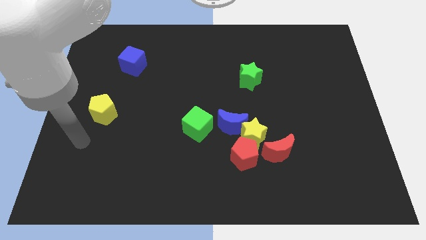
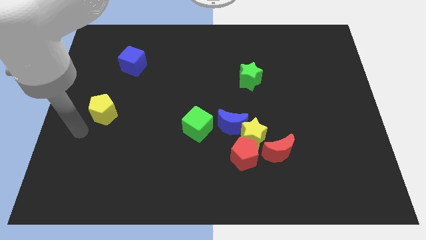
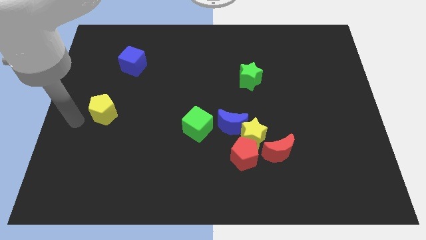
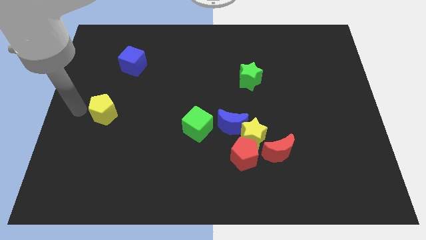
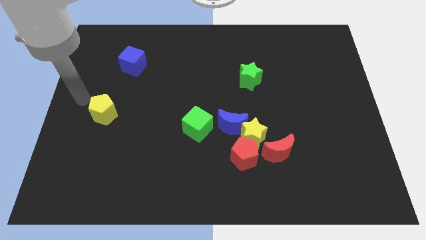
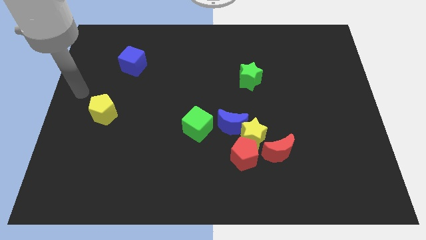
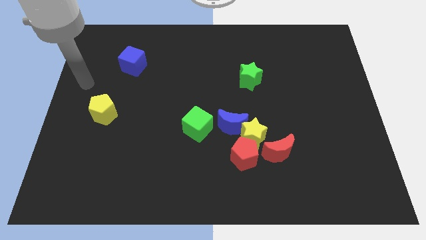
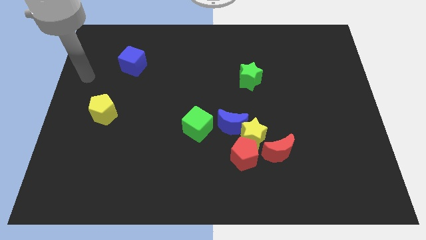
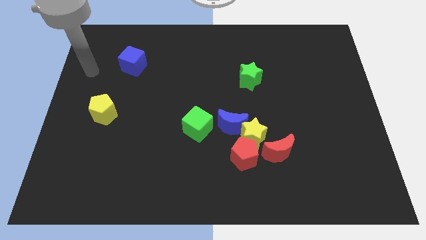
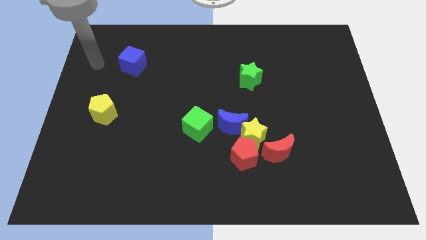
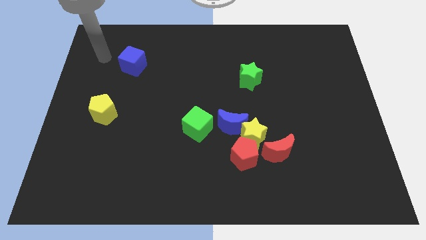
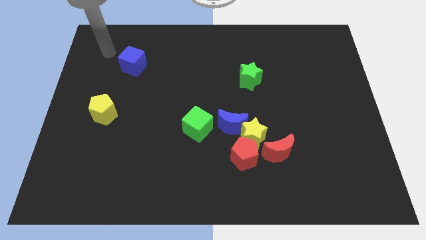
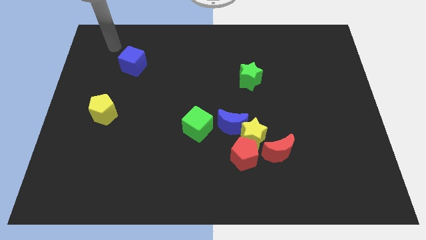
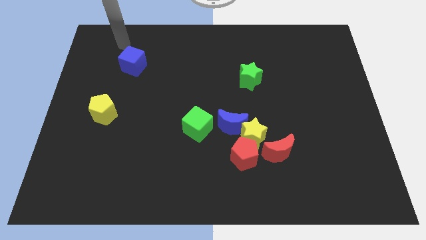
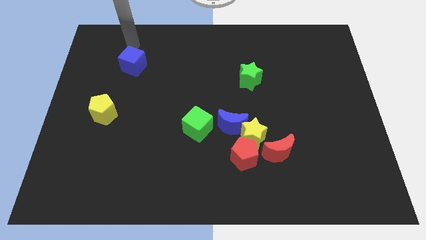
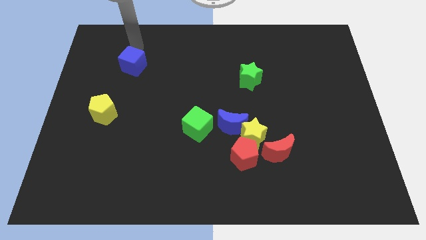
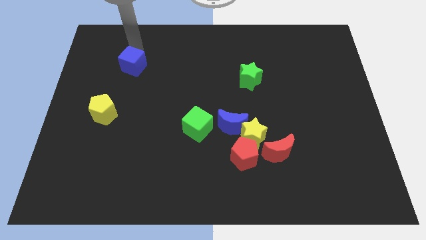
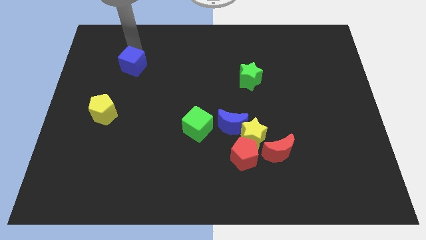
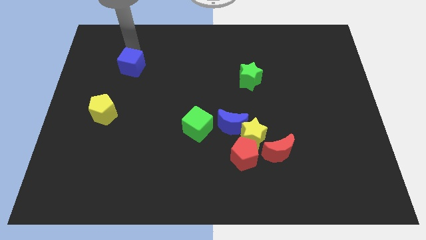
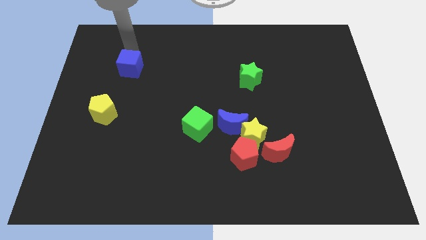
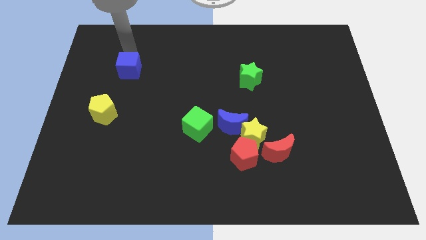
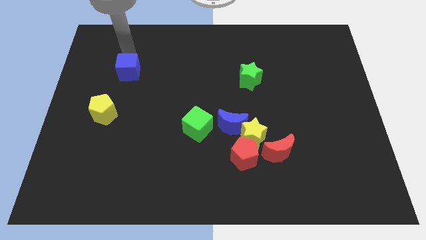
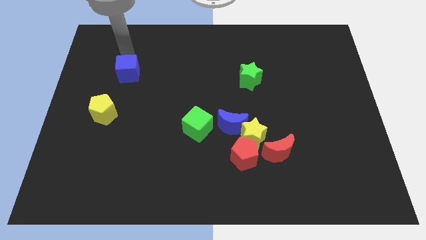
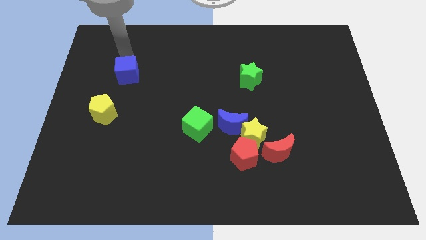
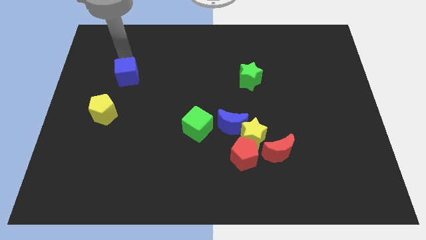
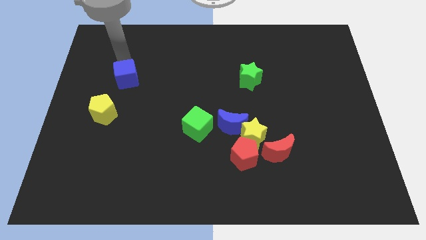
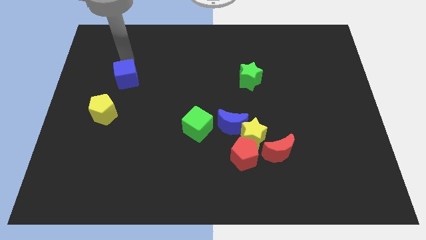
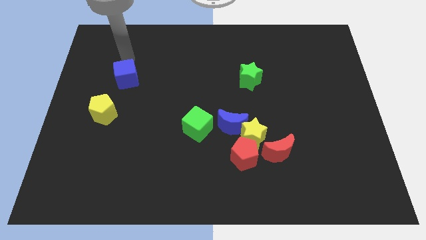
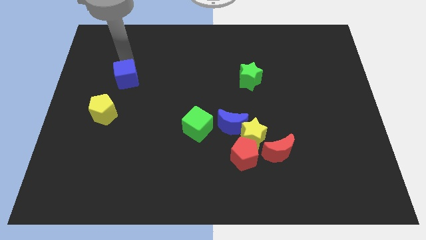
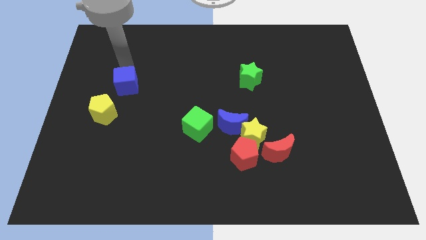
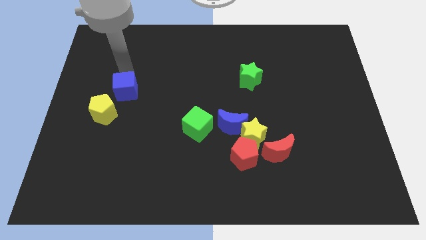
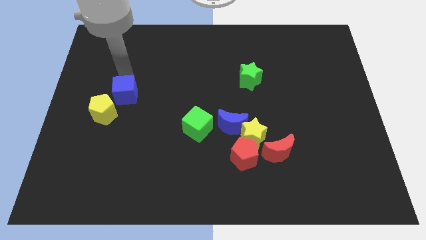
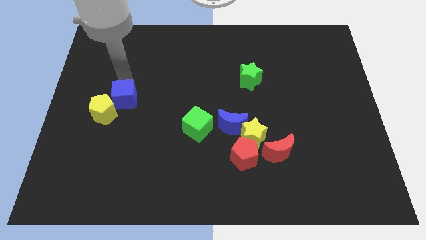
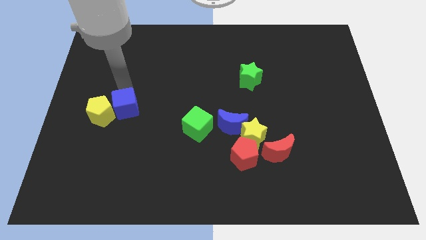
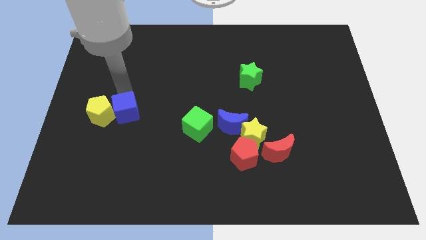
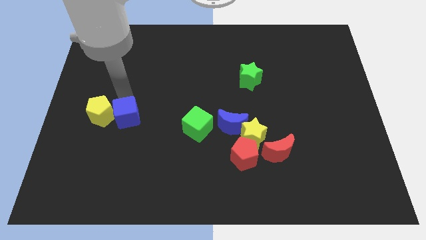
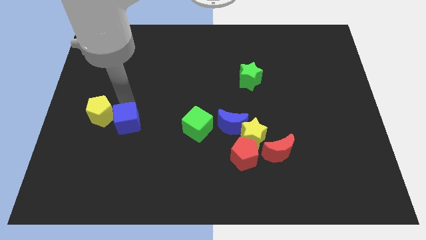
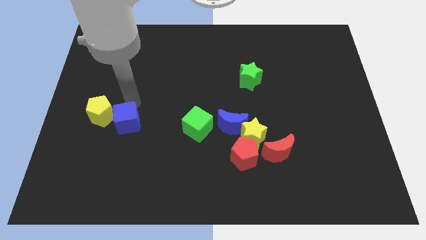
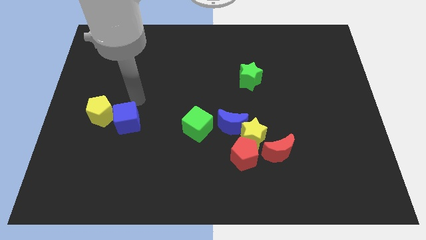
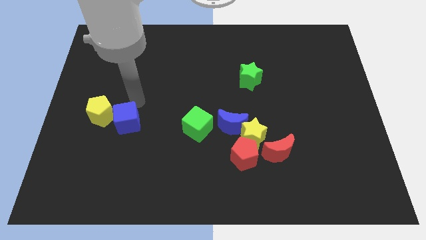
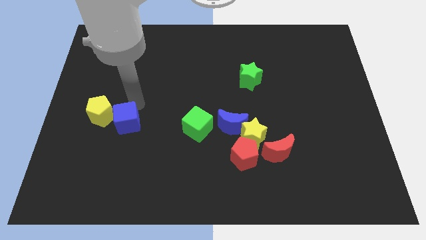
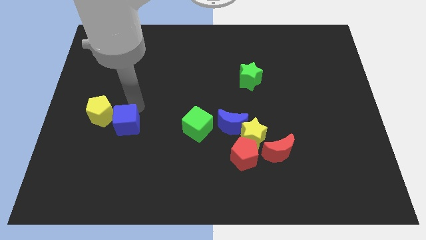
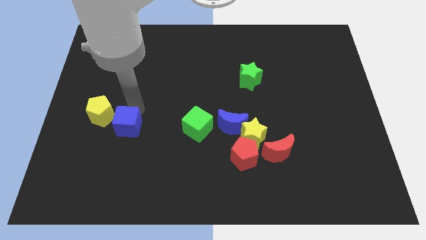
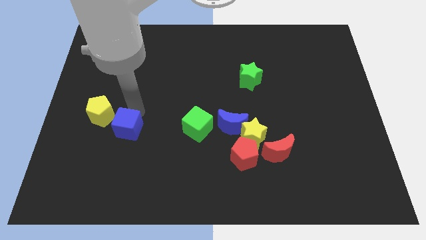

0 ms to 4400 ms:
move the blue cube downwards

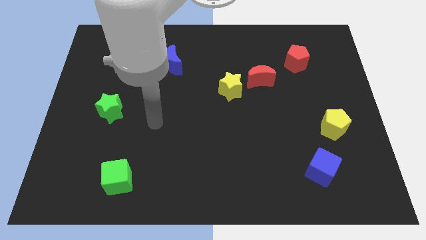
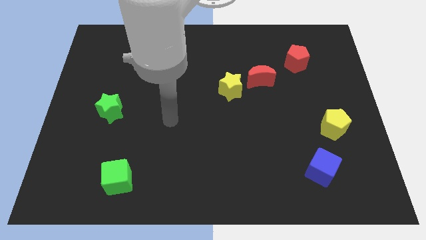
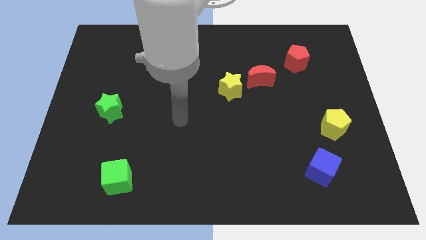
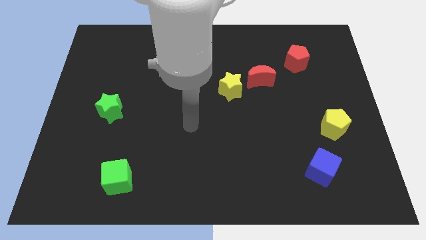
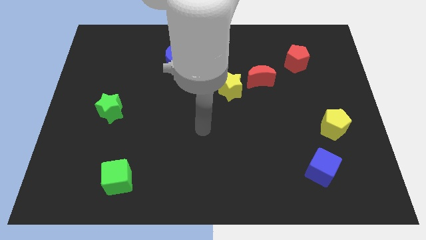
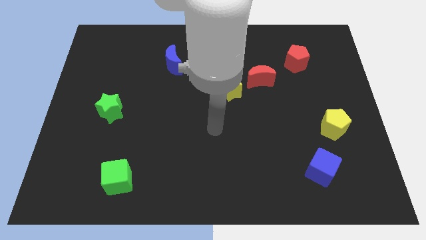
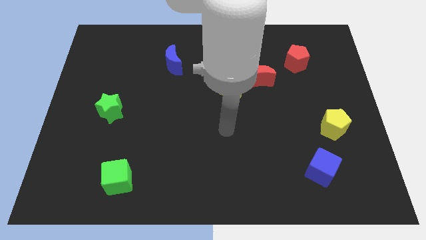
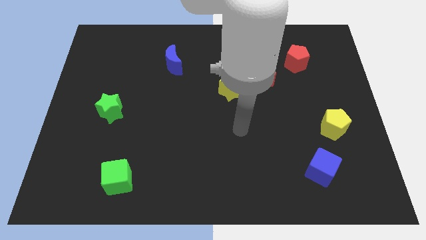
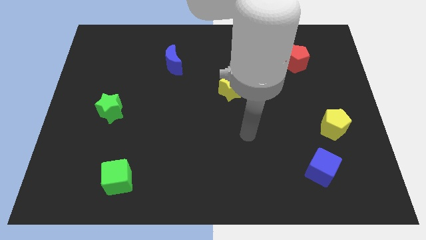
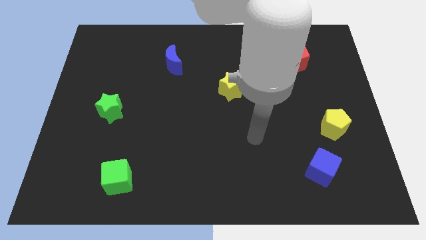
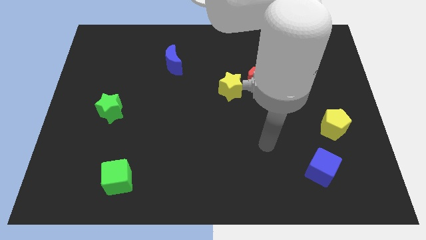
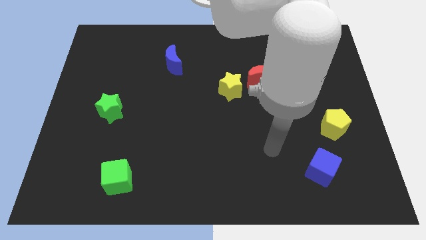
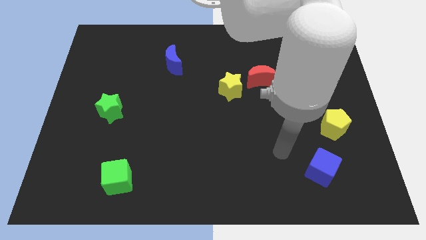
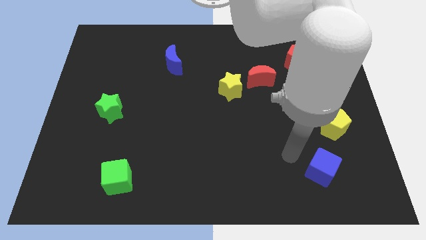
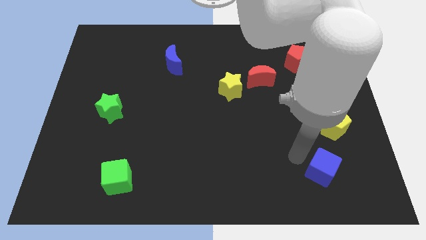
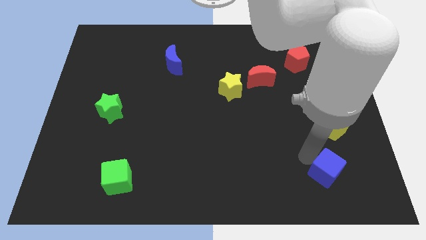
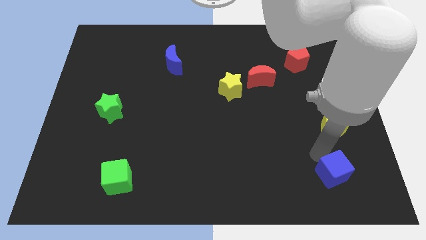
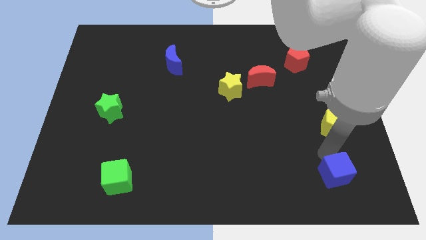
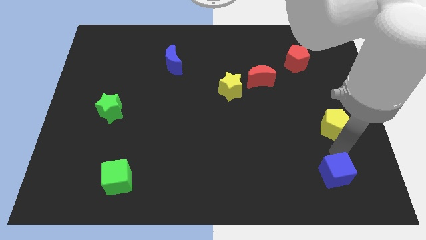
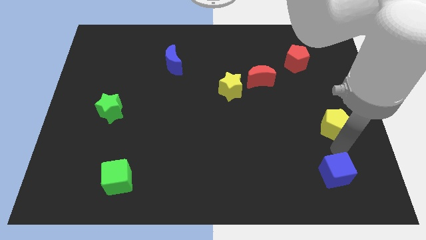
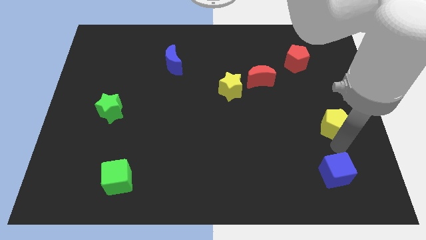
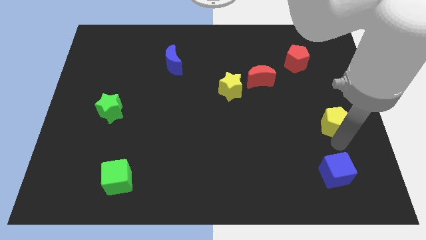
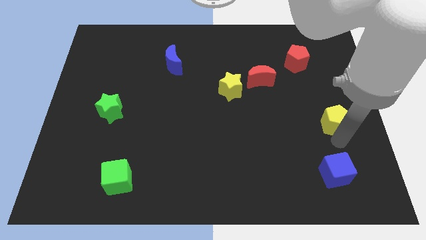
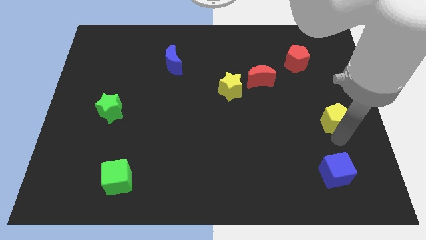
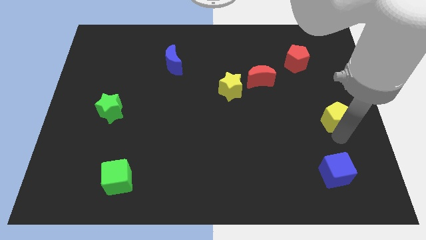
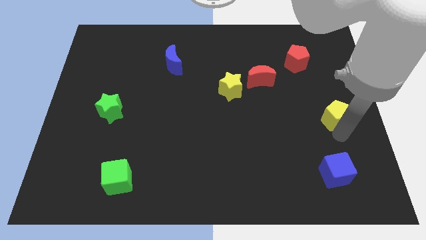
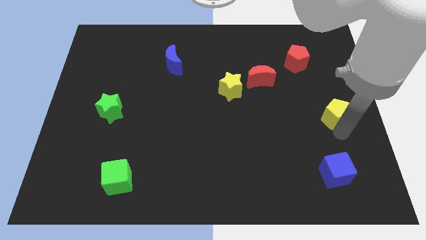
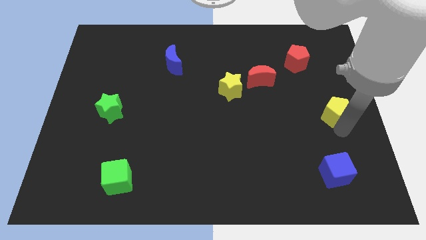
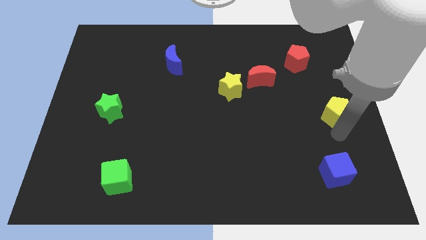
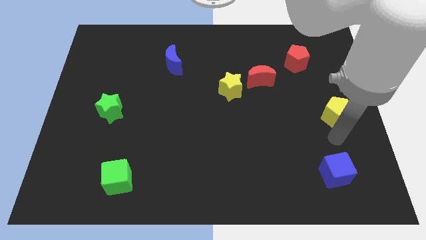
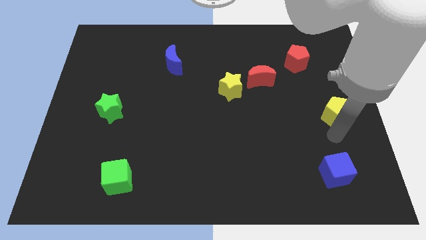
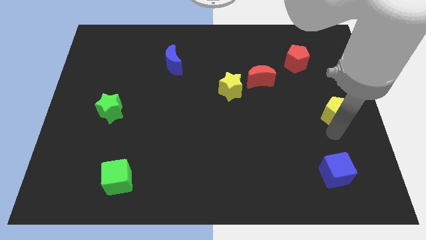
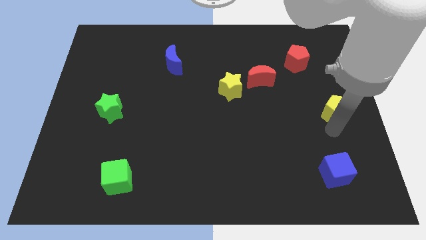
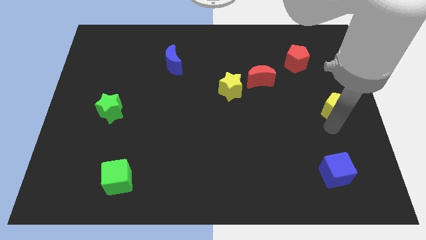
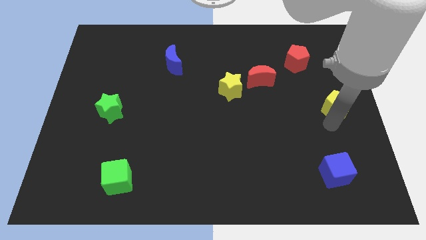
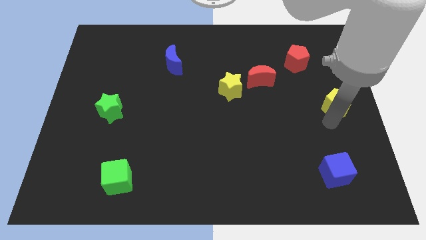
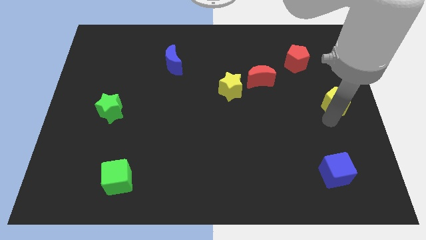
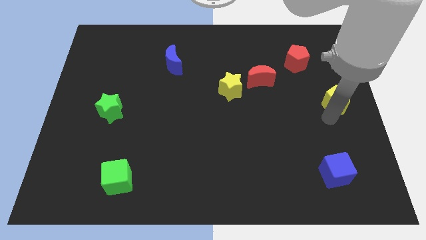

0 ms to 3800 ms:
move the yellow pentagon upwards a little bit
